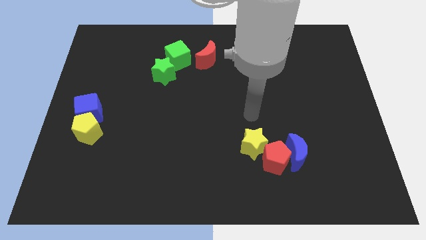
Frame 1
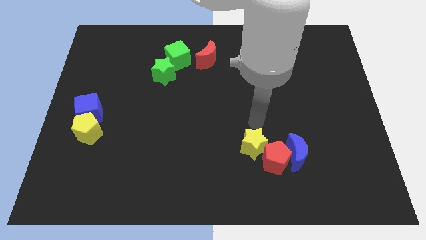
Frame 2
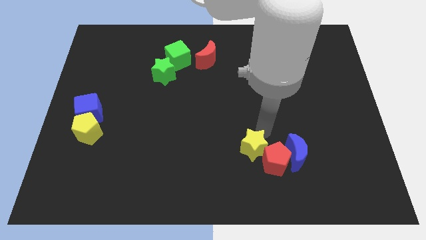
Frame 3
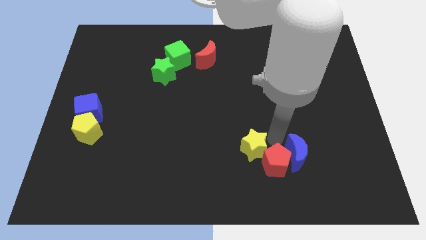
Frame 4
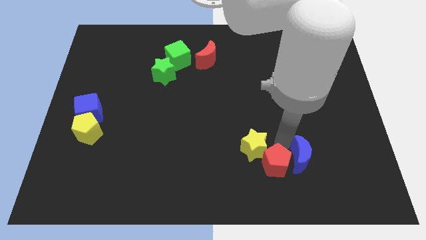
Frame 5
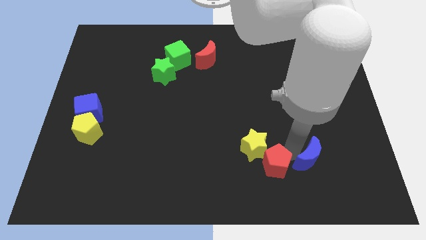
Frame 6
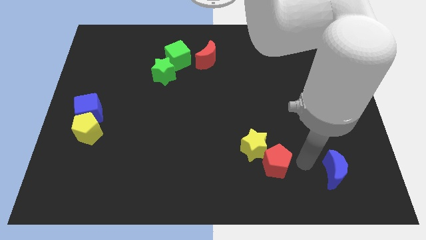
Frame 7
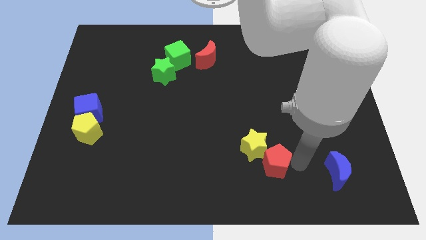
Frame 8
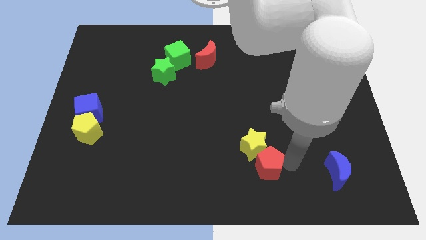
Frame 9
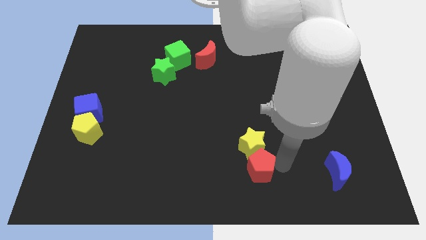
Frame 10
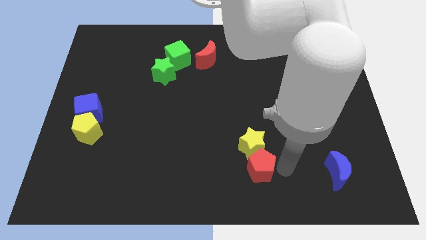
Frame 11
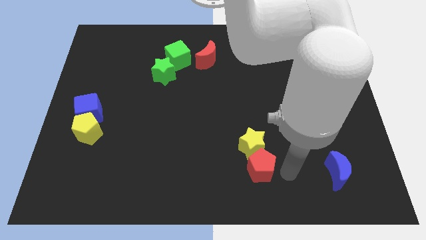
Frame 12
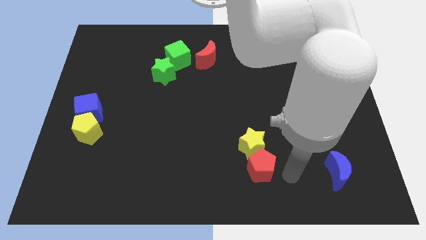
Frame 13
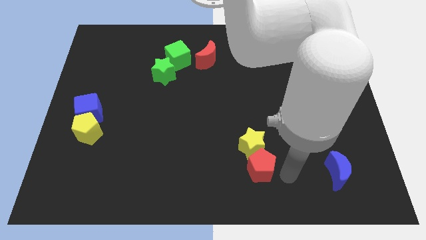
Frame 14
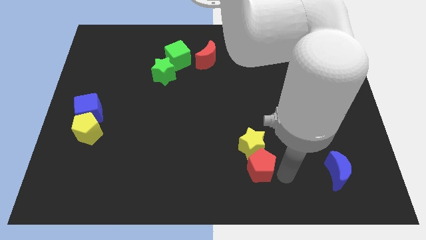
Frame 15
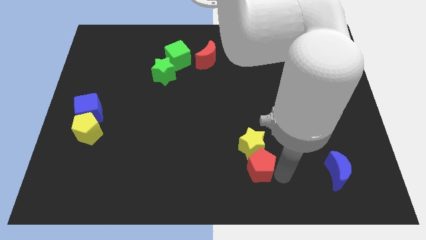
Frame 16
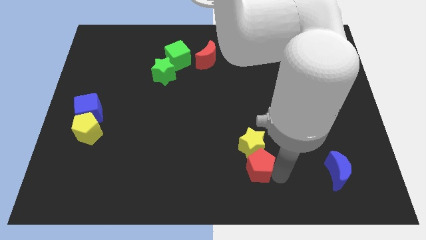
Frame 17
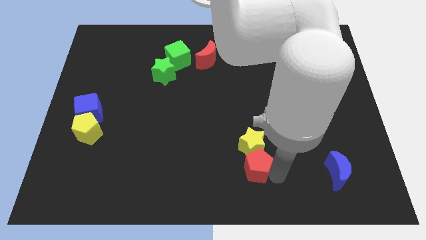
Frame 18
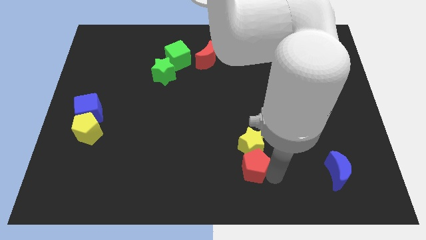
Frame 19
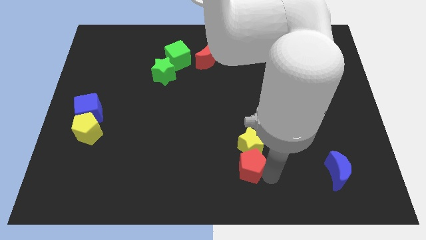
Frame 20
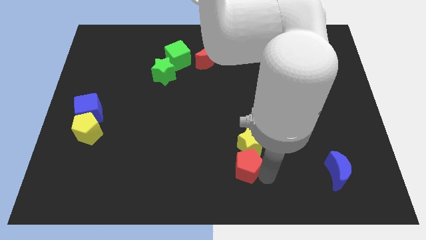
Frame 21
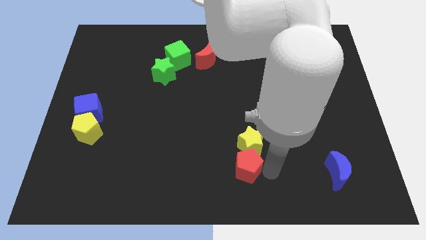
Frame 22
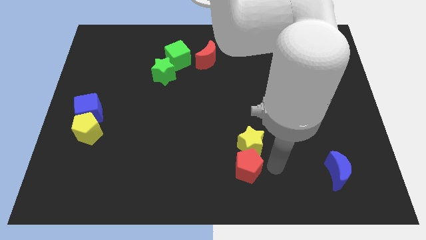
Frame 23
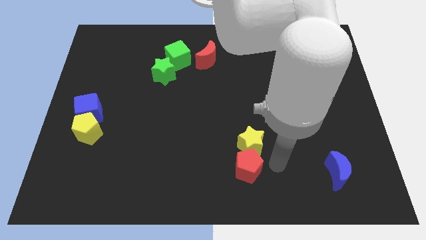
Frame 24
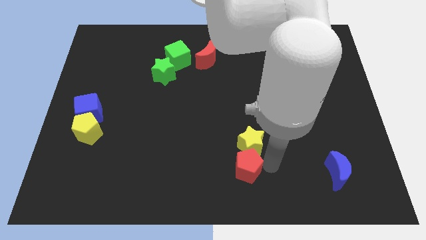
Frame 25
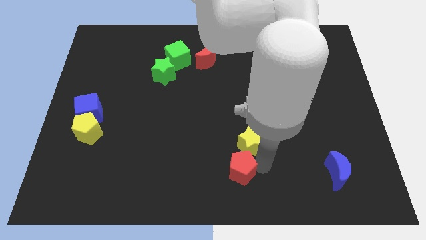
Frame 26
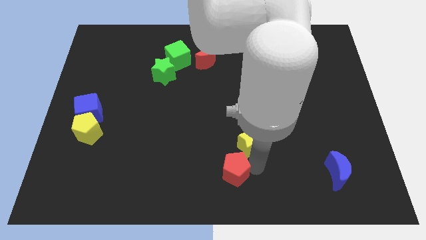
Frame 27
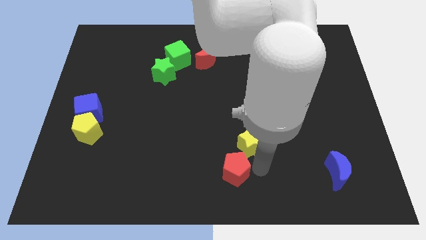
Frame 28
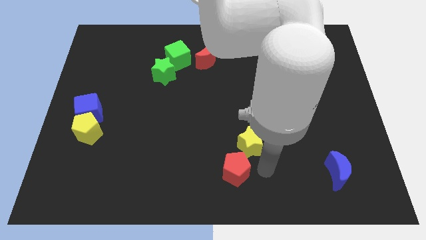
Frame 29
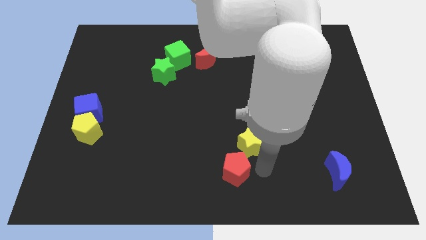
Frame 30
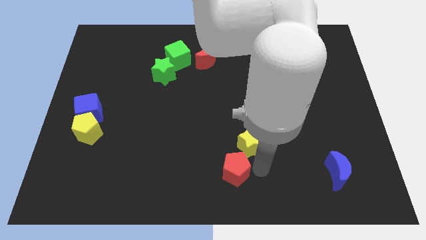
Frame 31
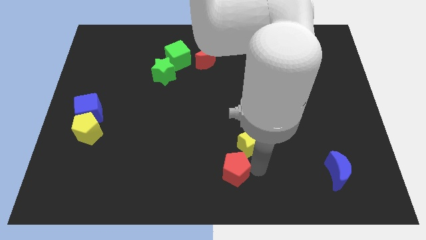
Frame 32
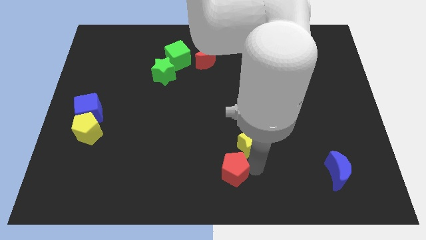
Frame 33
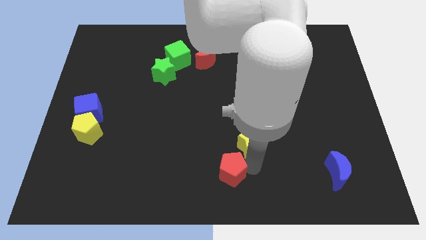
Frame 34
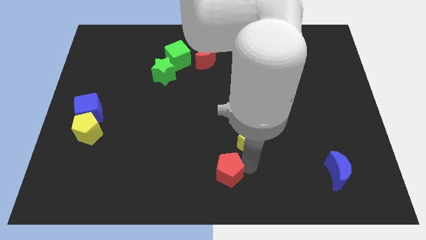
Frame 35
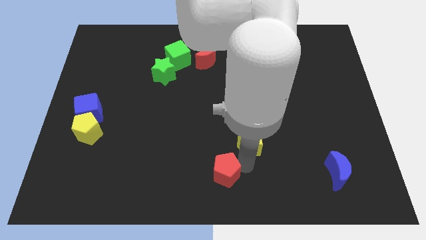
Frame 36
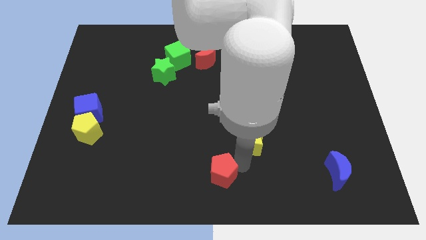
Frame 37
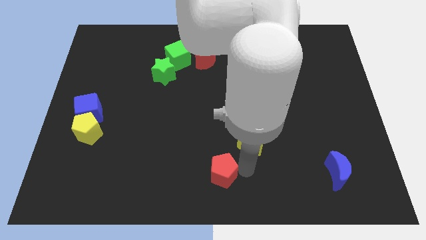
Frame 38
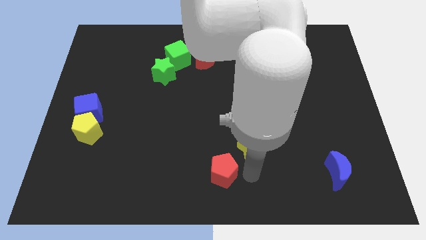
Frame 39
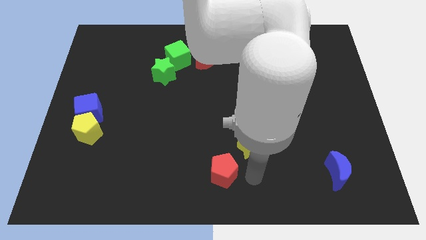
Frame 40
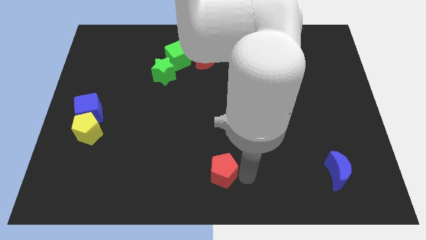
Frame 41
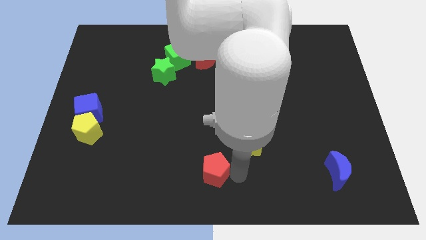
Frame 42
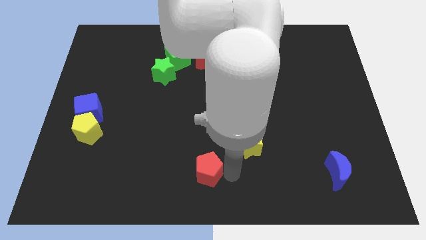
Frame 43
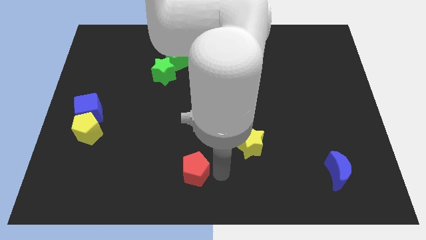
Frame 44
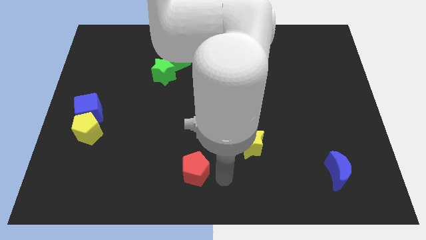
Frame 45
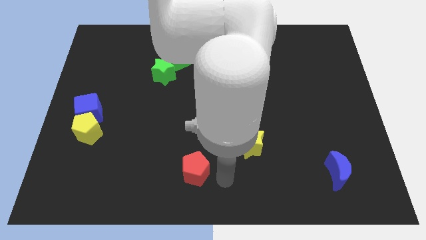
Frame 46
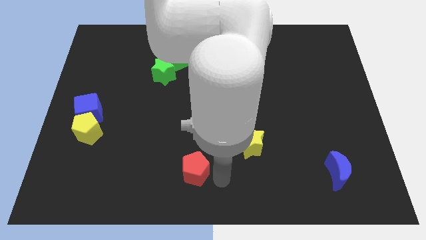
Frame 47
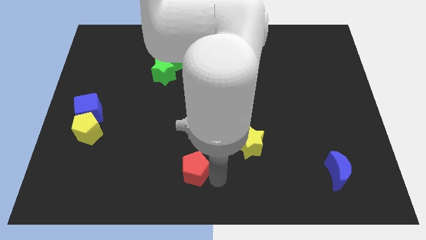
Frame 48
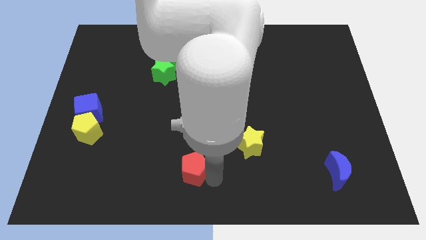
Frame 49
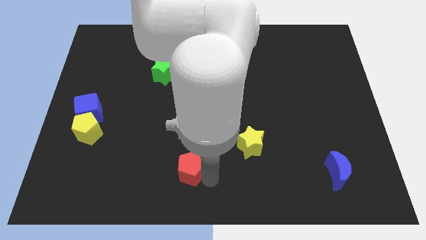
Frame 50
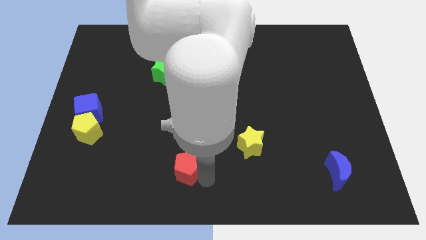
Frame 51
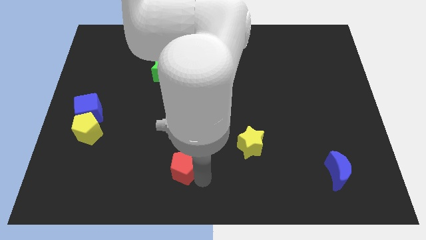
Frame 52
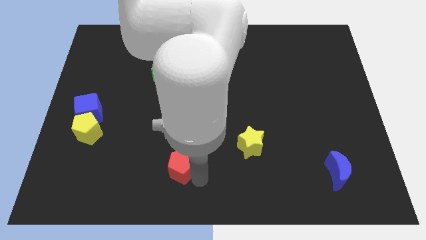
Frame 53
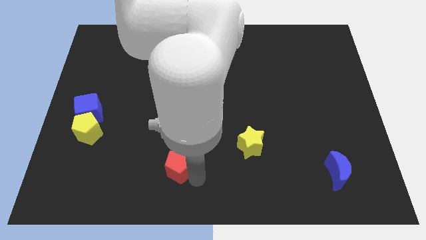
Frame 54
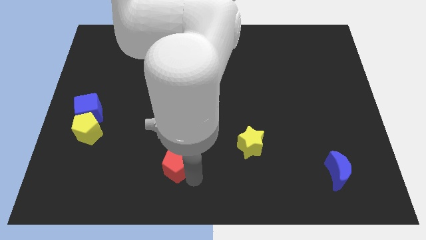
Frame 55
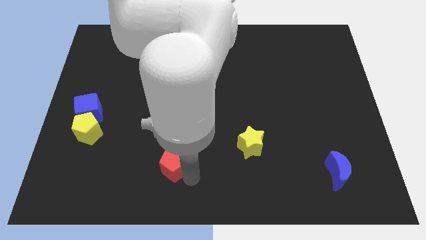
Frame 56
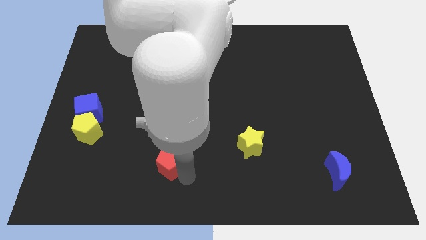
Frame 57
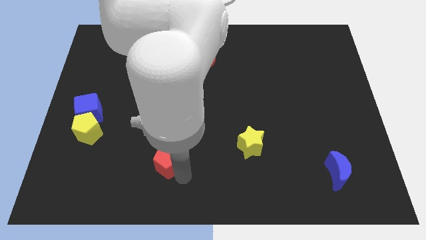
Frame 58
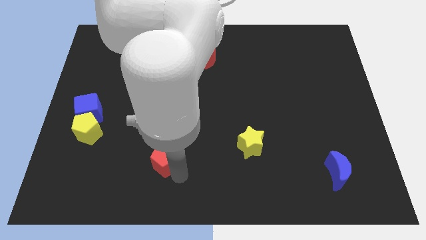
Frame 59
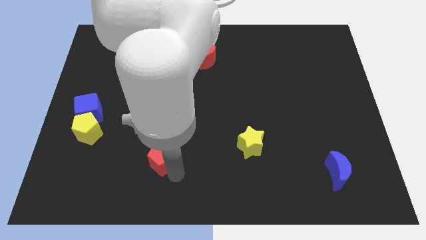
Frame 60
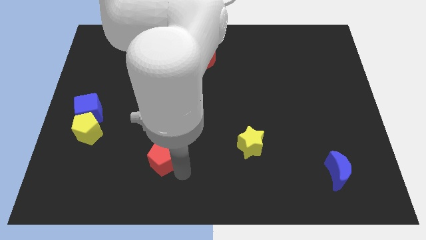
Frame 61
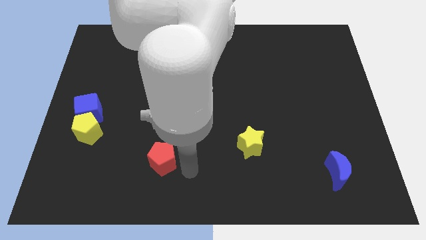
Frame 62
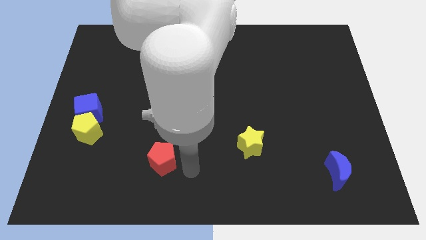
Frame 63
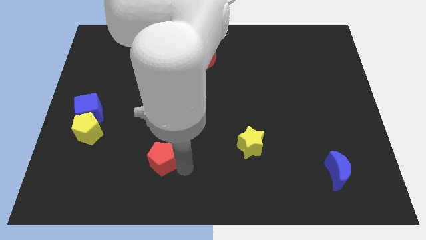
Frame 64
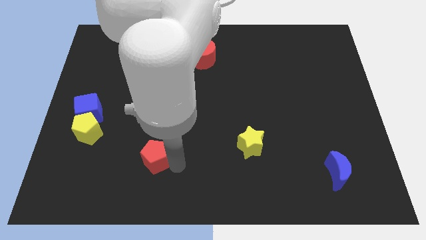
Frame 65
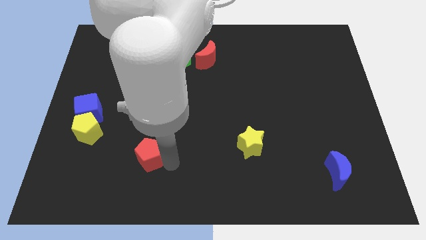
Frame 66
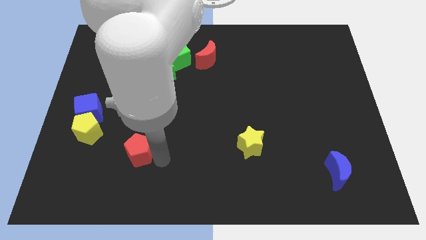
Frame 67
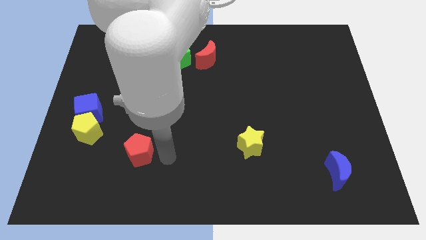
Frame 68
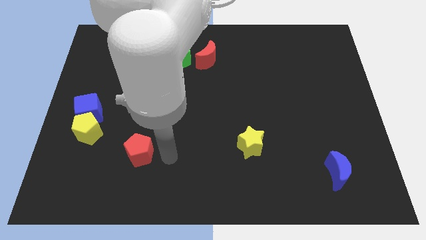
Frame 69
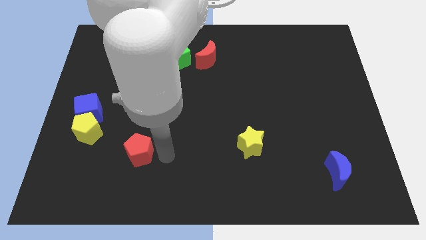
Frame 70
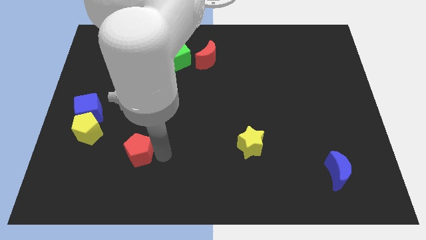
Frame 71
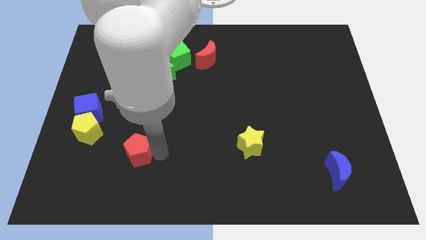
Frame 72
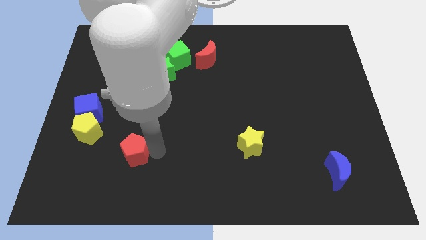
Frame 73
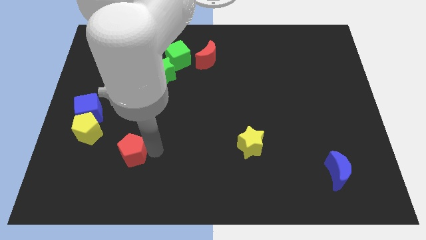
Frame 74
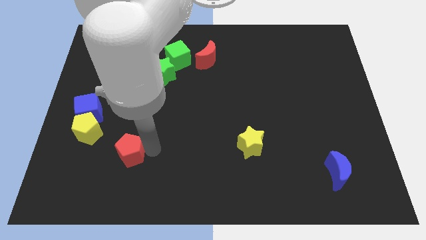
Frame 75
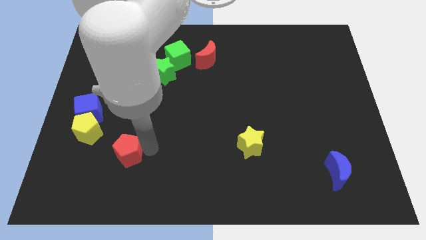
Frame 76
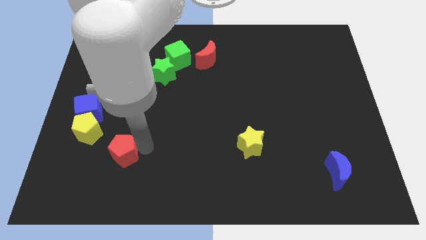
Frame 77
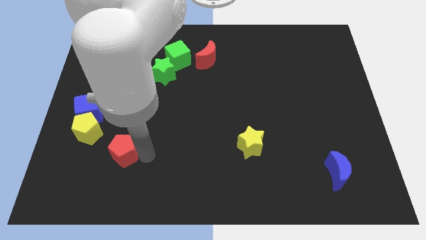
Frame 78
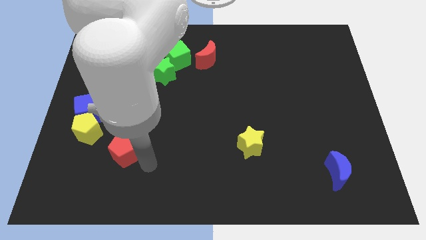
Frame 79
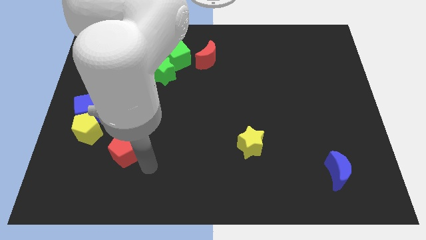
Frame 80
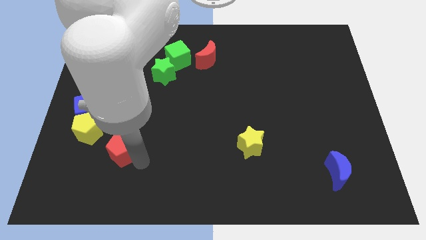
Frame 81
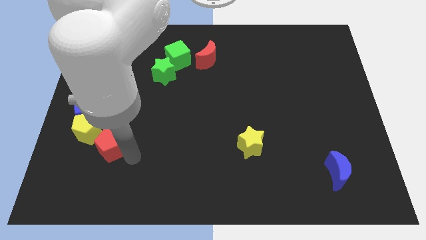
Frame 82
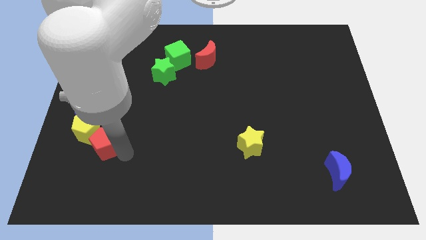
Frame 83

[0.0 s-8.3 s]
put the red pentagon towards the yellow pentagon
